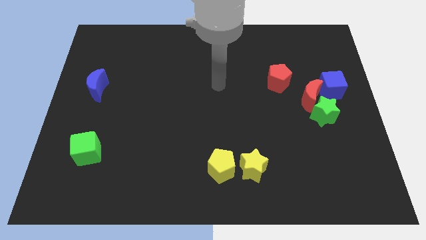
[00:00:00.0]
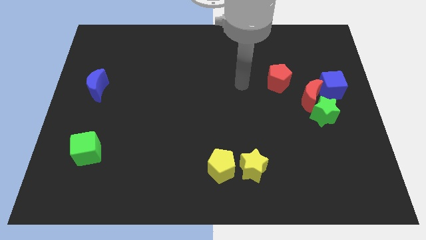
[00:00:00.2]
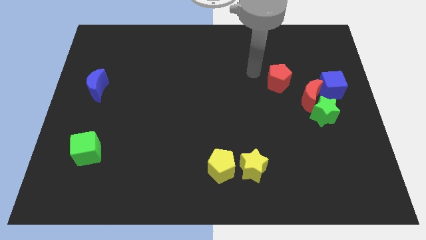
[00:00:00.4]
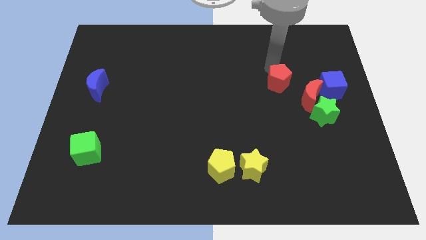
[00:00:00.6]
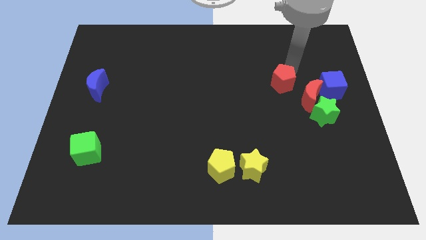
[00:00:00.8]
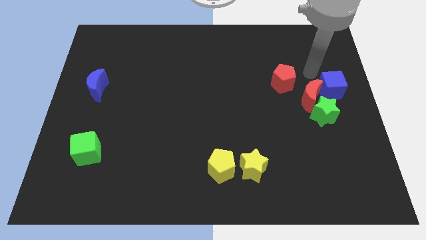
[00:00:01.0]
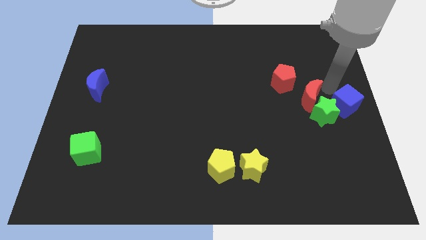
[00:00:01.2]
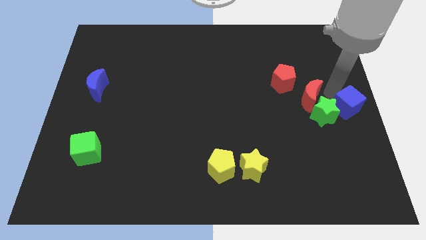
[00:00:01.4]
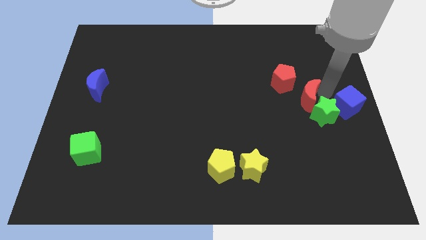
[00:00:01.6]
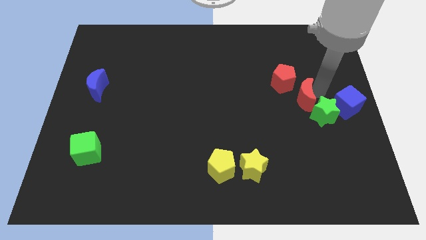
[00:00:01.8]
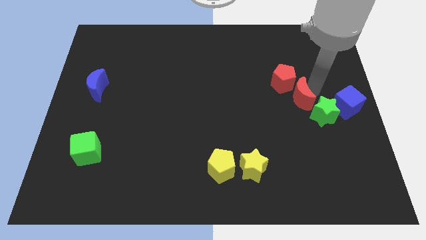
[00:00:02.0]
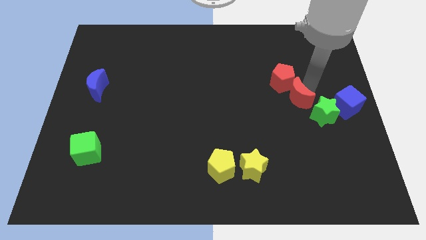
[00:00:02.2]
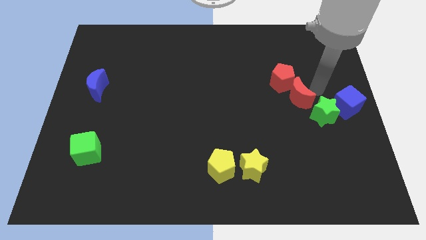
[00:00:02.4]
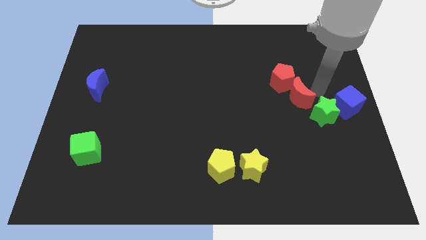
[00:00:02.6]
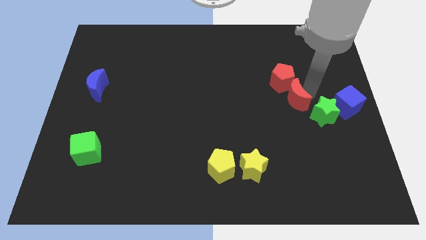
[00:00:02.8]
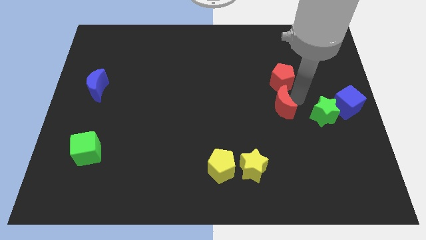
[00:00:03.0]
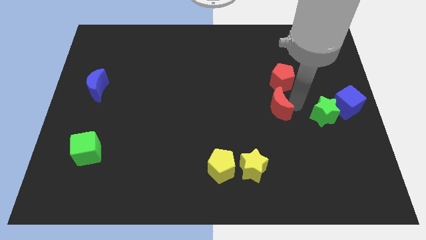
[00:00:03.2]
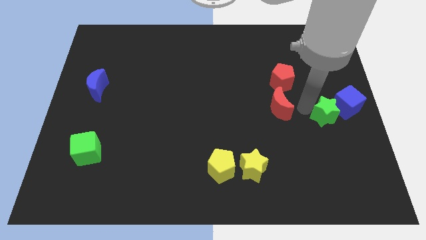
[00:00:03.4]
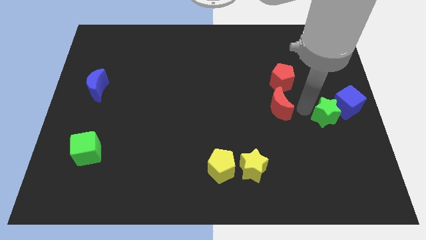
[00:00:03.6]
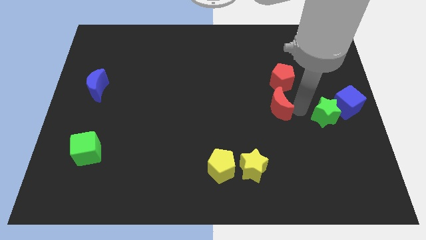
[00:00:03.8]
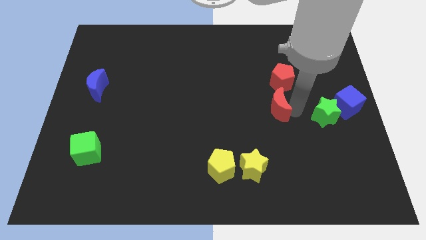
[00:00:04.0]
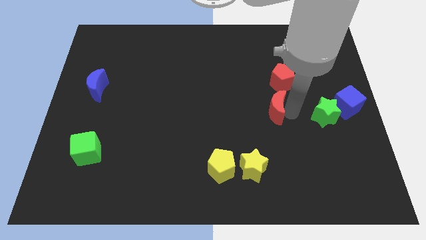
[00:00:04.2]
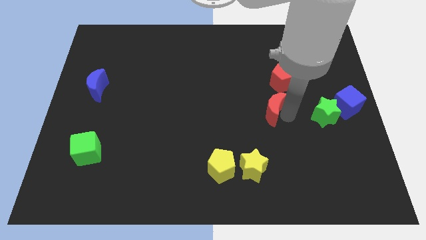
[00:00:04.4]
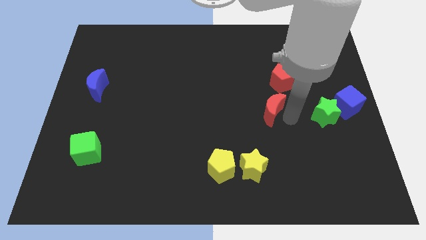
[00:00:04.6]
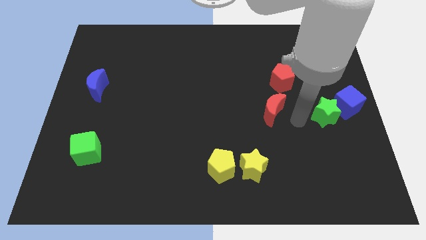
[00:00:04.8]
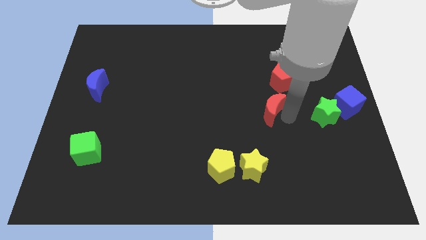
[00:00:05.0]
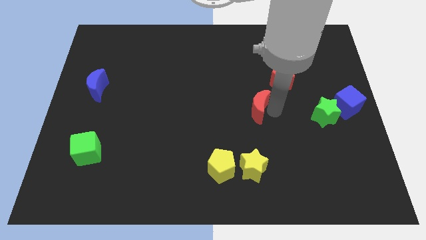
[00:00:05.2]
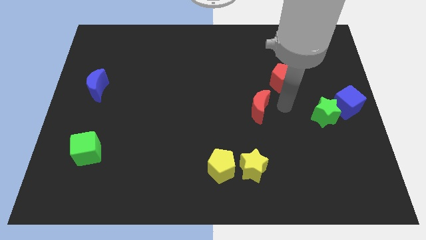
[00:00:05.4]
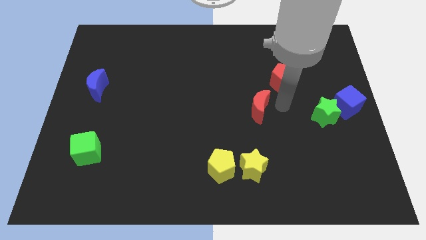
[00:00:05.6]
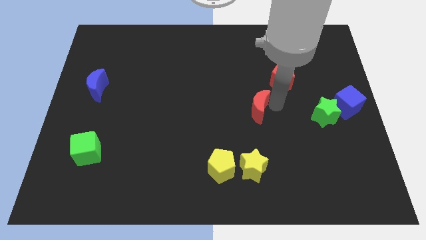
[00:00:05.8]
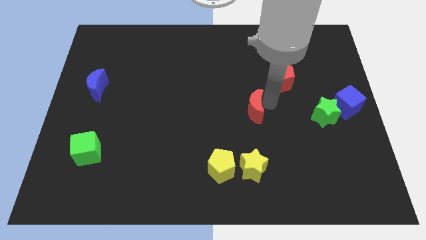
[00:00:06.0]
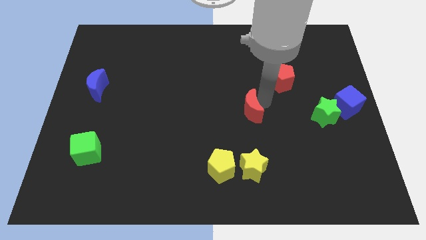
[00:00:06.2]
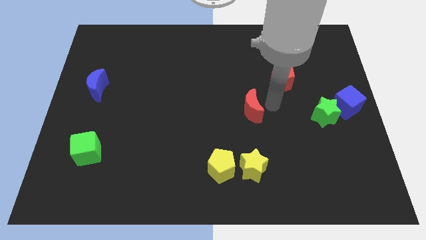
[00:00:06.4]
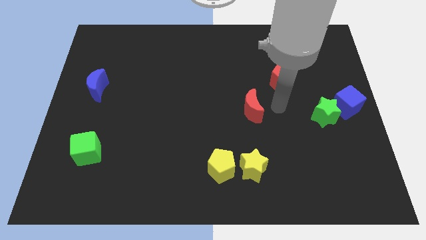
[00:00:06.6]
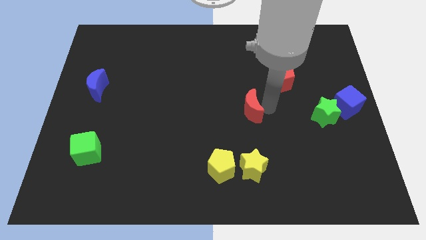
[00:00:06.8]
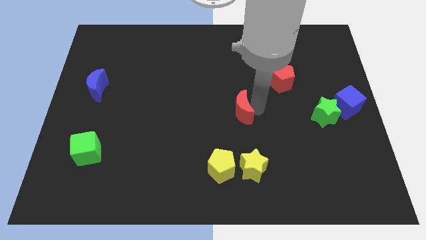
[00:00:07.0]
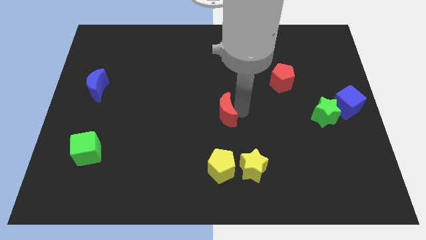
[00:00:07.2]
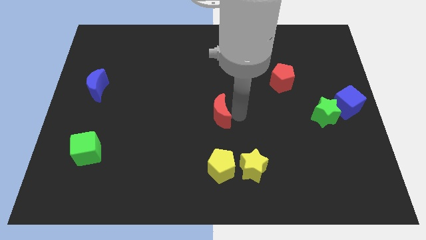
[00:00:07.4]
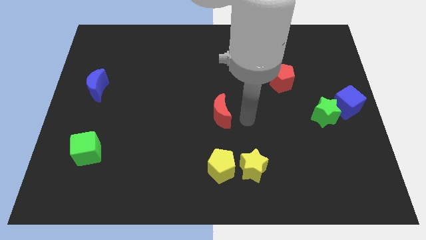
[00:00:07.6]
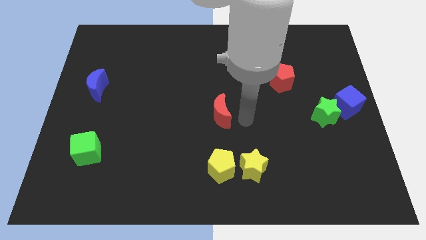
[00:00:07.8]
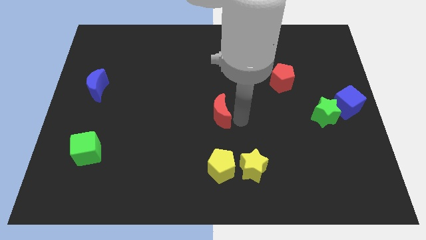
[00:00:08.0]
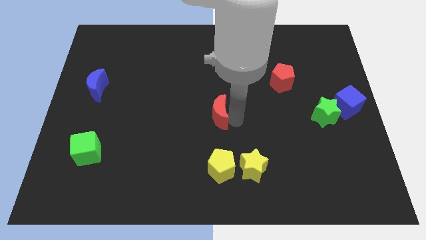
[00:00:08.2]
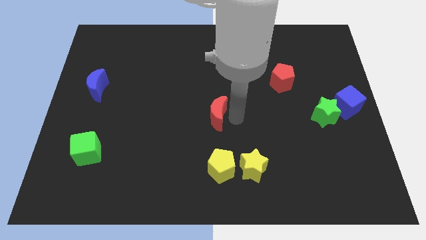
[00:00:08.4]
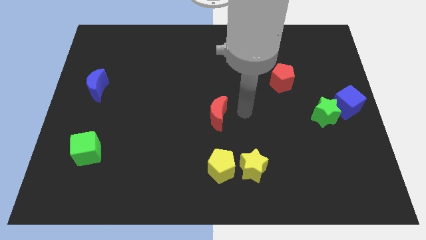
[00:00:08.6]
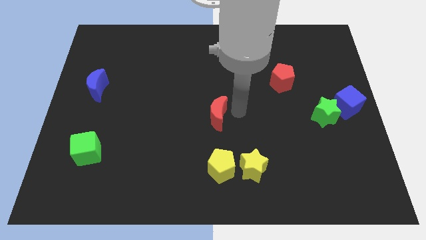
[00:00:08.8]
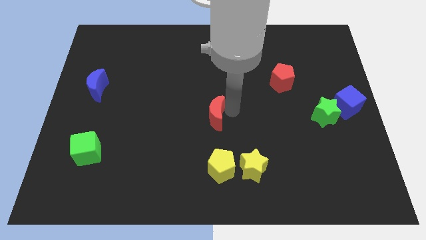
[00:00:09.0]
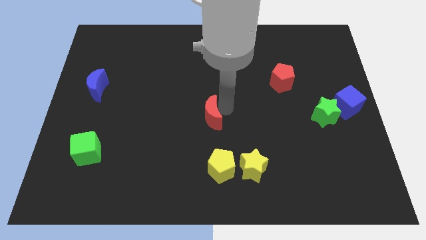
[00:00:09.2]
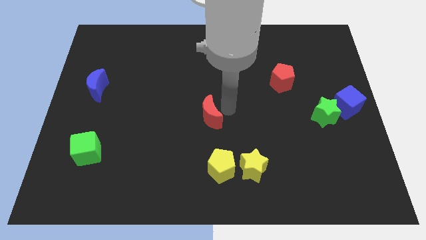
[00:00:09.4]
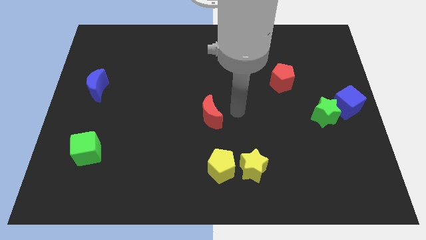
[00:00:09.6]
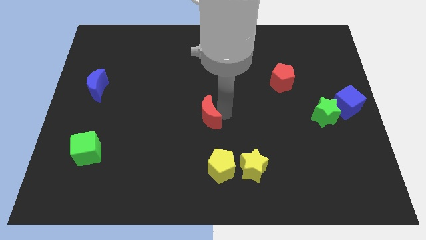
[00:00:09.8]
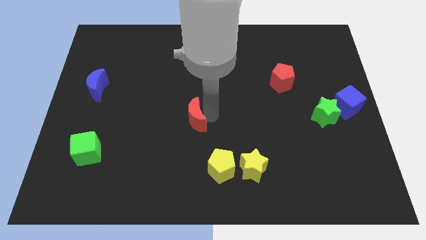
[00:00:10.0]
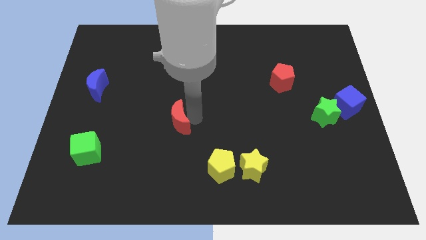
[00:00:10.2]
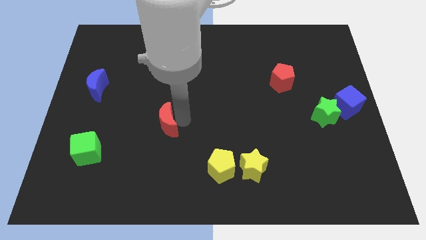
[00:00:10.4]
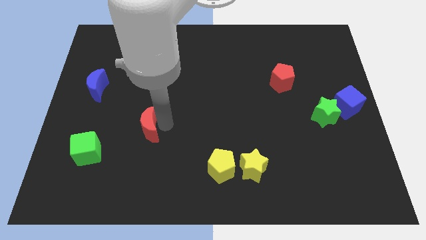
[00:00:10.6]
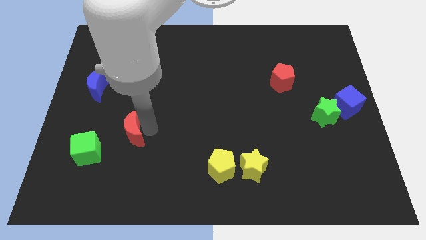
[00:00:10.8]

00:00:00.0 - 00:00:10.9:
slide the red moon diagonally up and to the right of the green cube
